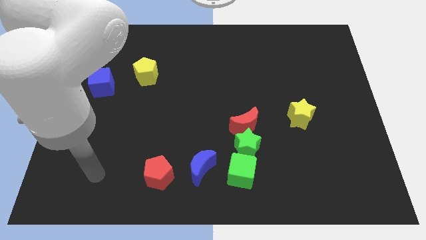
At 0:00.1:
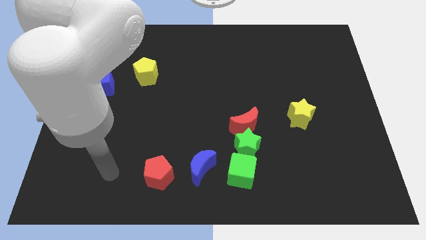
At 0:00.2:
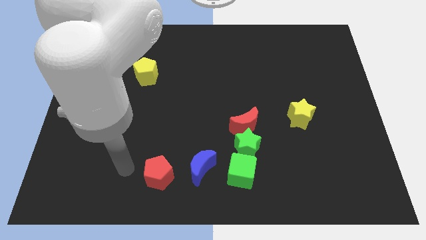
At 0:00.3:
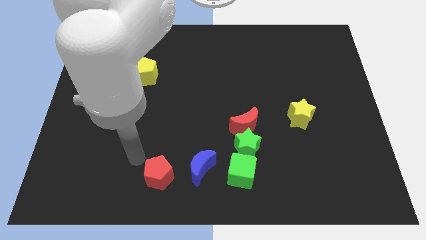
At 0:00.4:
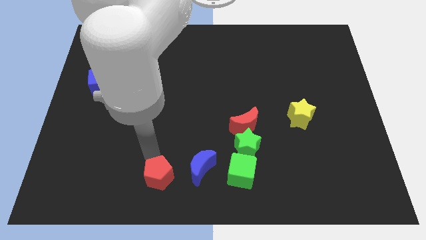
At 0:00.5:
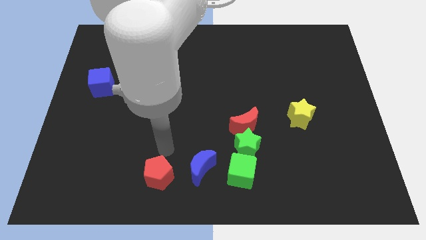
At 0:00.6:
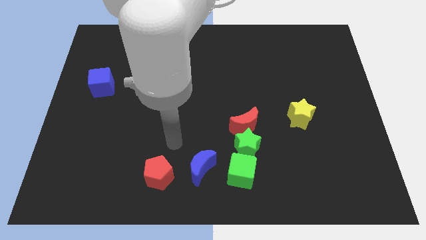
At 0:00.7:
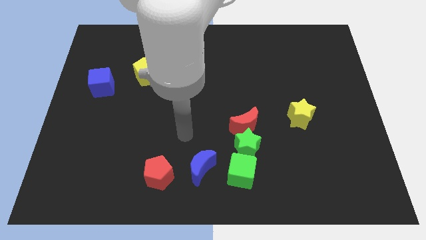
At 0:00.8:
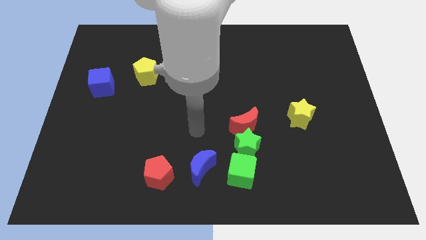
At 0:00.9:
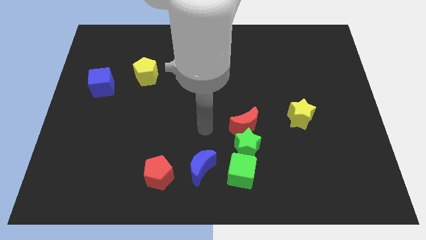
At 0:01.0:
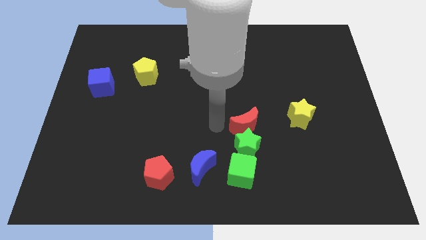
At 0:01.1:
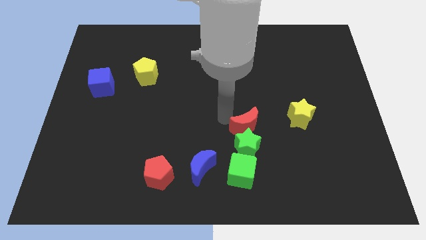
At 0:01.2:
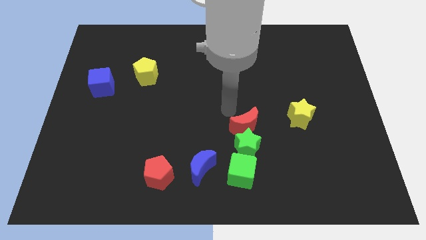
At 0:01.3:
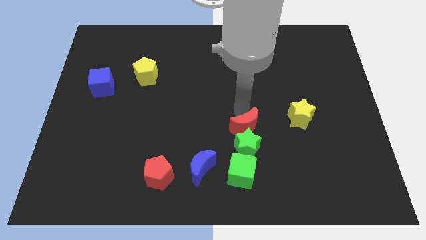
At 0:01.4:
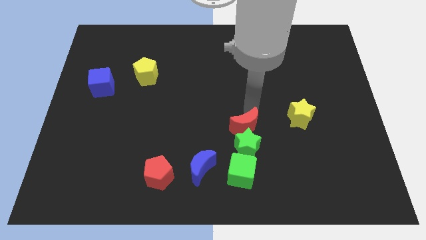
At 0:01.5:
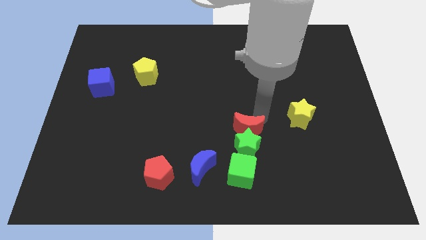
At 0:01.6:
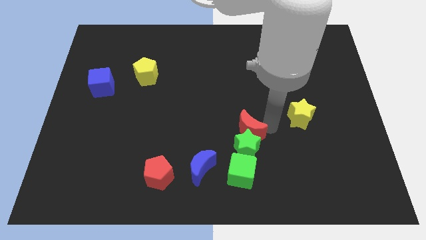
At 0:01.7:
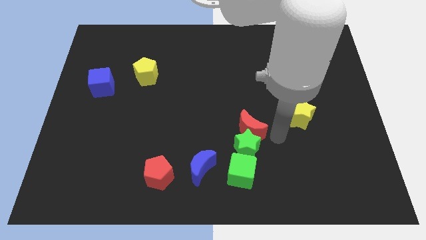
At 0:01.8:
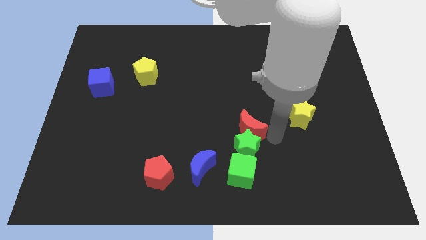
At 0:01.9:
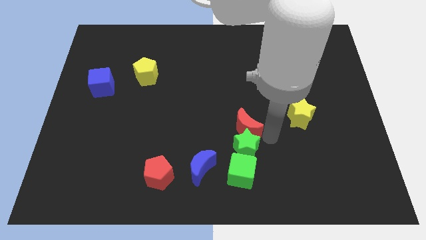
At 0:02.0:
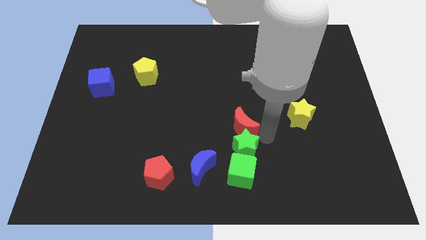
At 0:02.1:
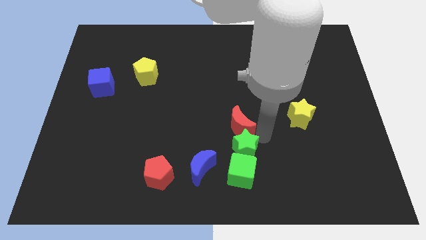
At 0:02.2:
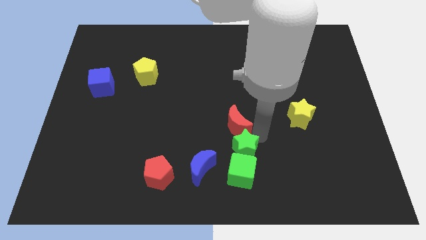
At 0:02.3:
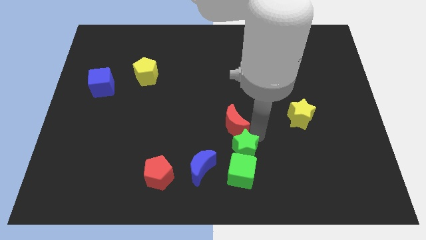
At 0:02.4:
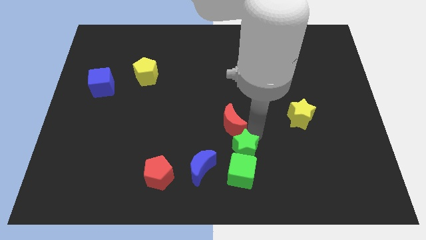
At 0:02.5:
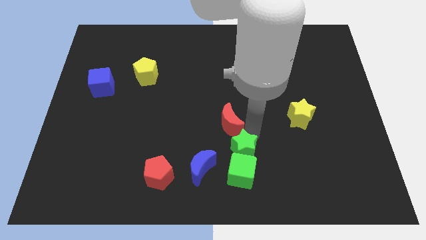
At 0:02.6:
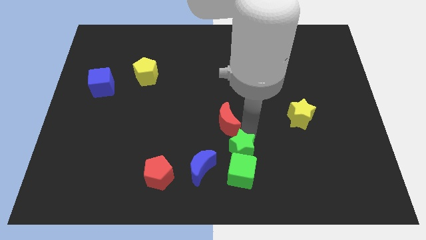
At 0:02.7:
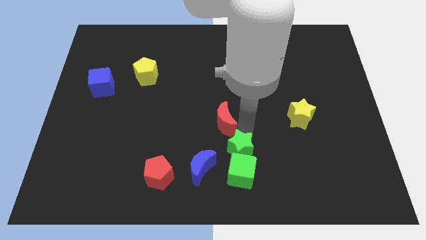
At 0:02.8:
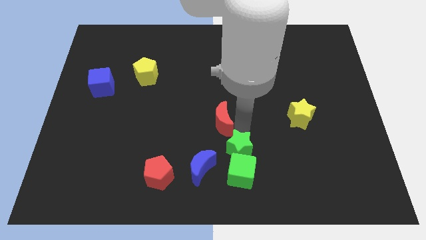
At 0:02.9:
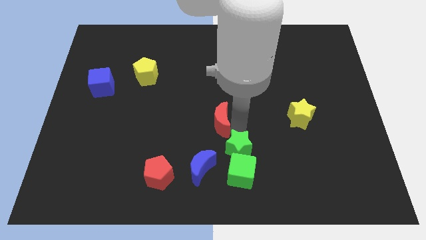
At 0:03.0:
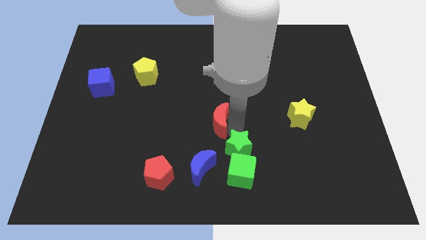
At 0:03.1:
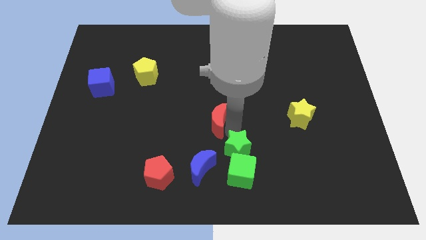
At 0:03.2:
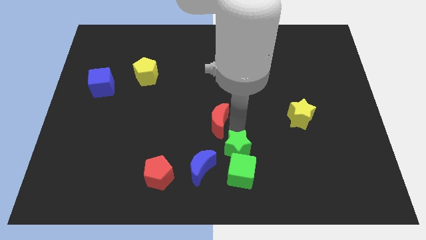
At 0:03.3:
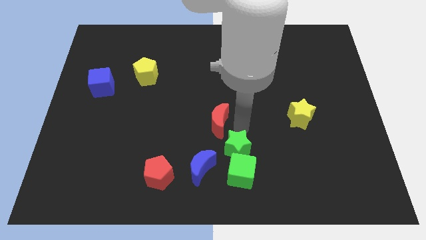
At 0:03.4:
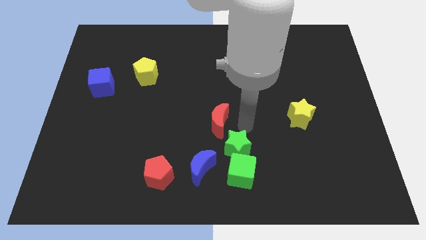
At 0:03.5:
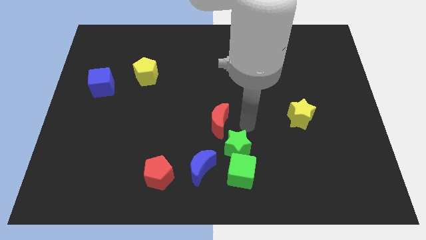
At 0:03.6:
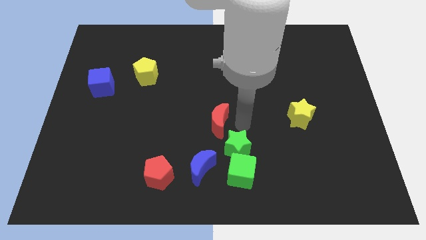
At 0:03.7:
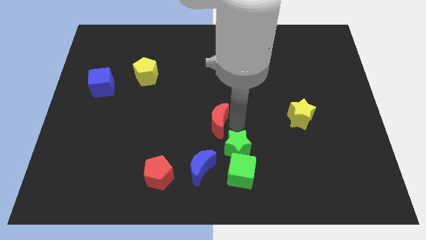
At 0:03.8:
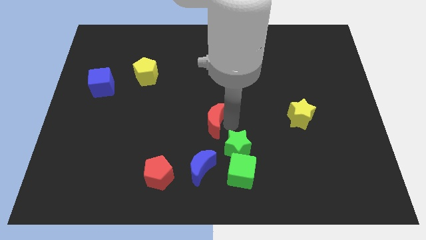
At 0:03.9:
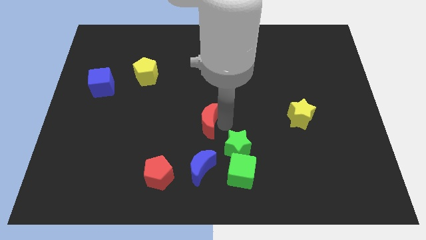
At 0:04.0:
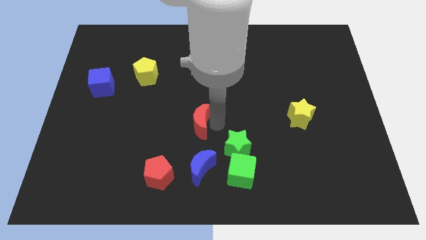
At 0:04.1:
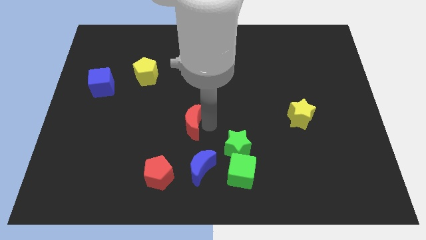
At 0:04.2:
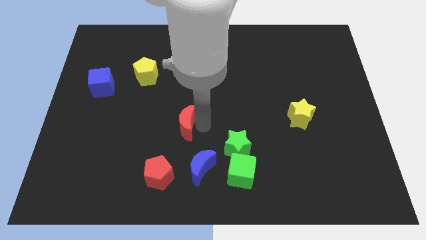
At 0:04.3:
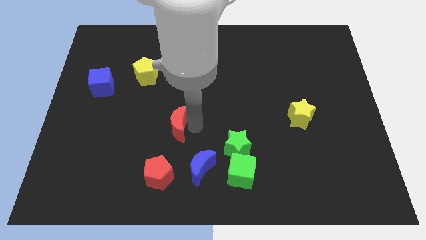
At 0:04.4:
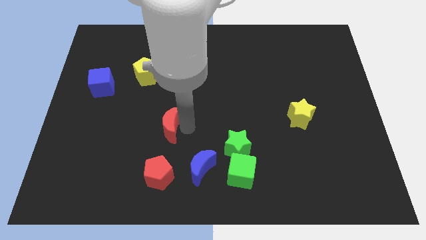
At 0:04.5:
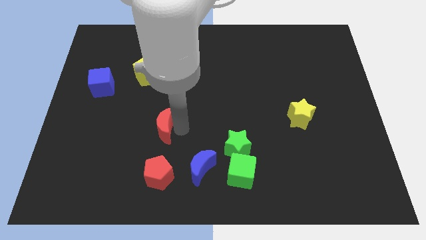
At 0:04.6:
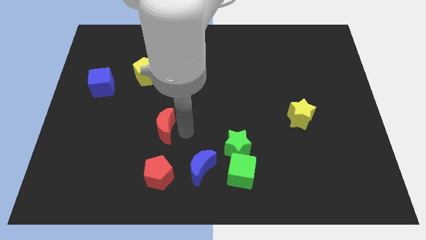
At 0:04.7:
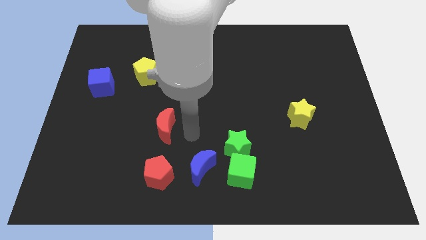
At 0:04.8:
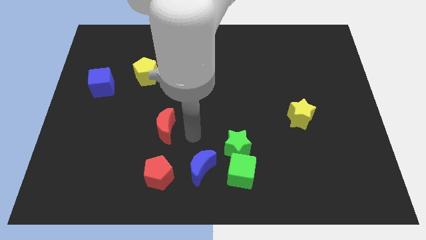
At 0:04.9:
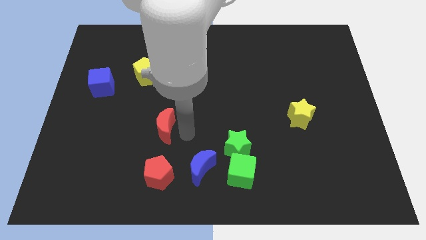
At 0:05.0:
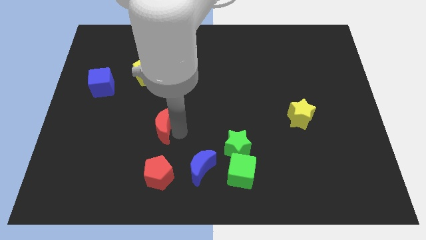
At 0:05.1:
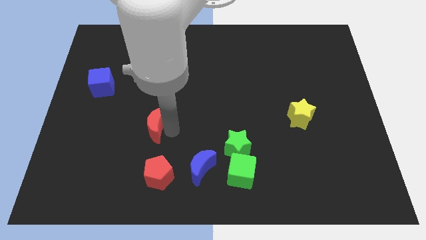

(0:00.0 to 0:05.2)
move the red moon left

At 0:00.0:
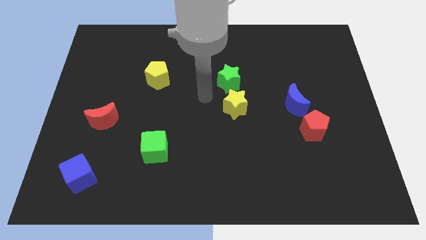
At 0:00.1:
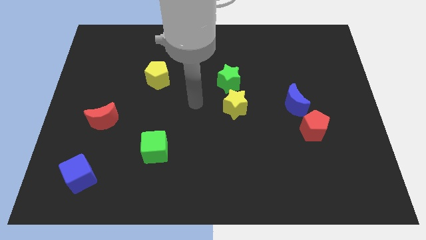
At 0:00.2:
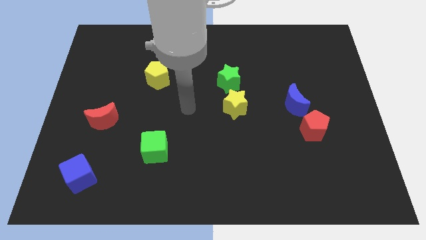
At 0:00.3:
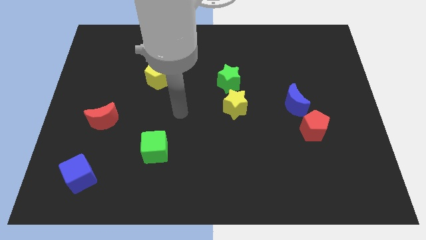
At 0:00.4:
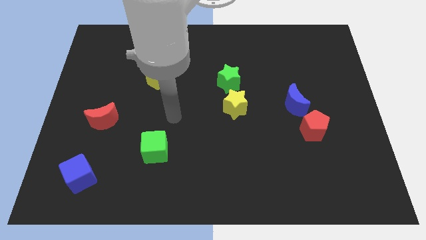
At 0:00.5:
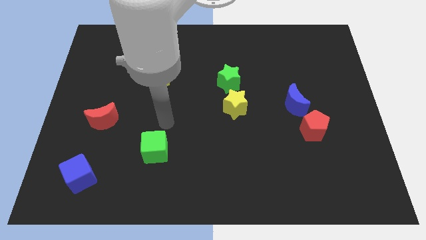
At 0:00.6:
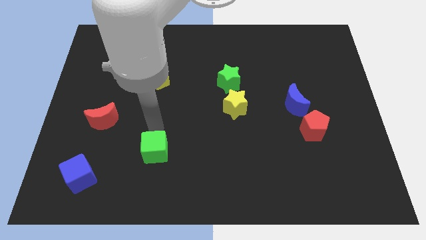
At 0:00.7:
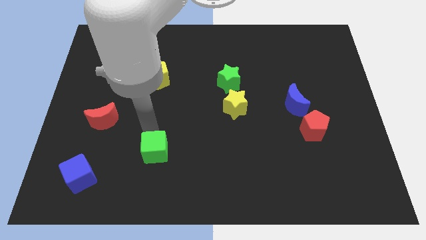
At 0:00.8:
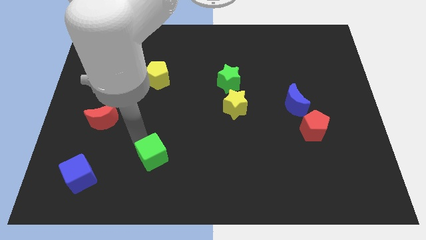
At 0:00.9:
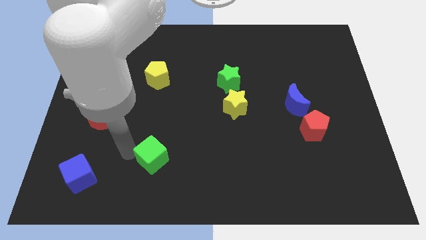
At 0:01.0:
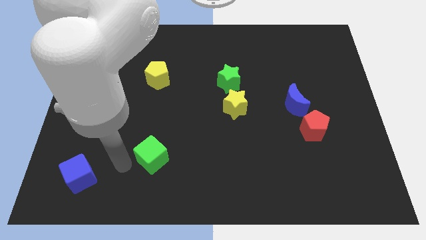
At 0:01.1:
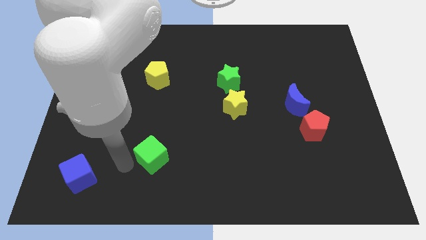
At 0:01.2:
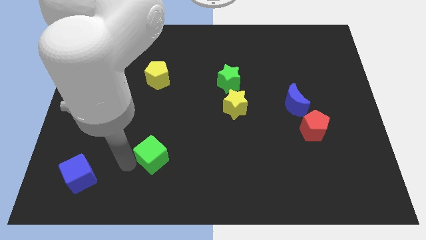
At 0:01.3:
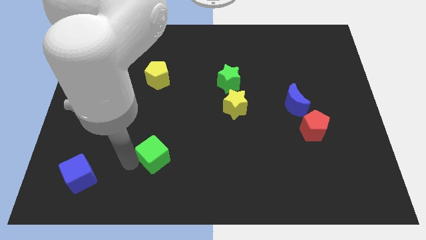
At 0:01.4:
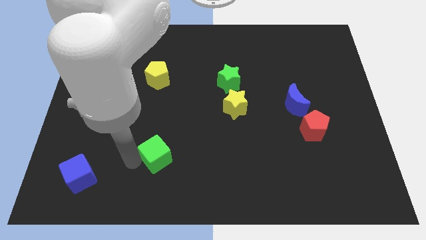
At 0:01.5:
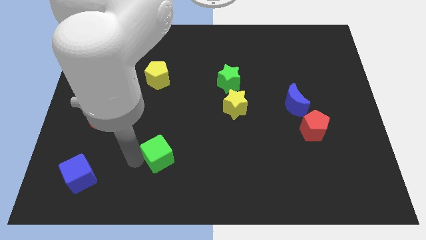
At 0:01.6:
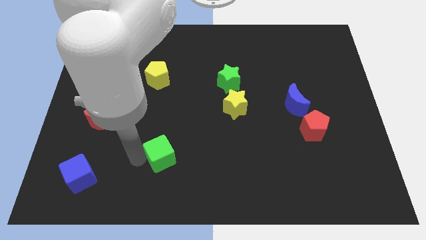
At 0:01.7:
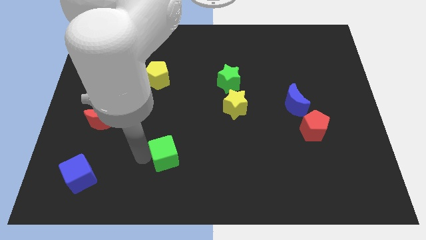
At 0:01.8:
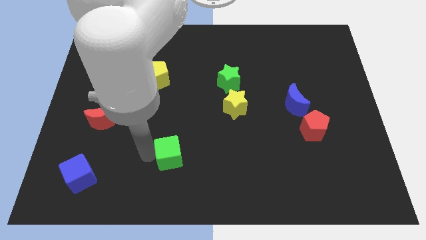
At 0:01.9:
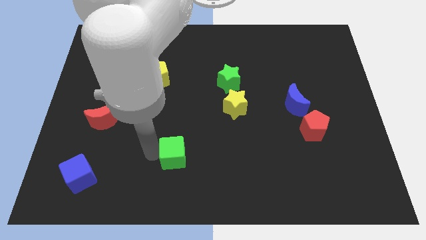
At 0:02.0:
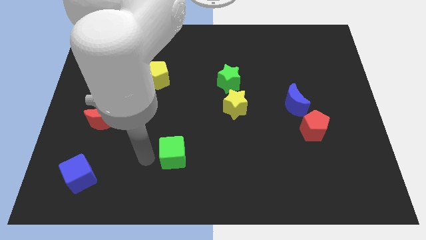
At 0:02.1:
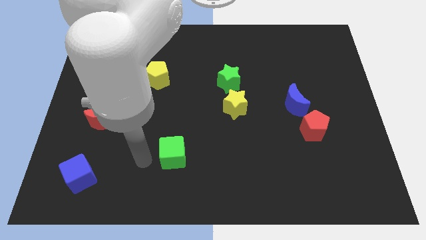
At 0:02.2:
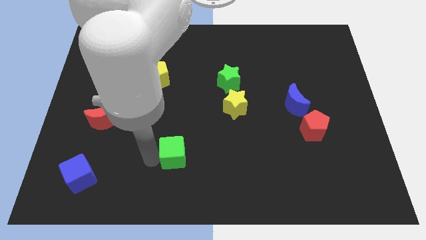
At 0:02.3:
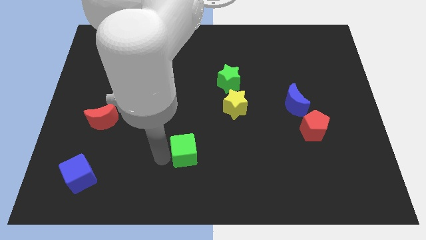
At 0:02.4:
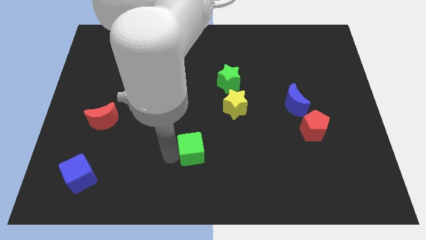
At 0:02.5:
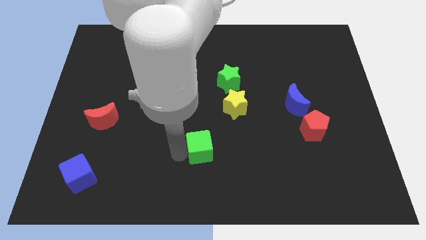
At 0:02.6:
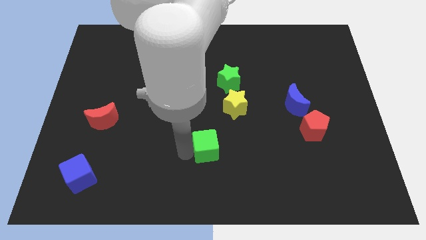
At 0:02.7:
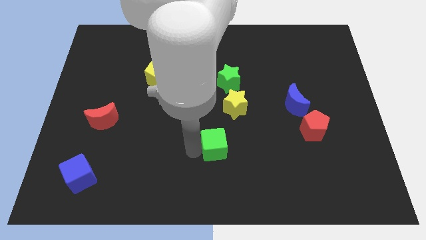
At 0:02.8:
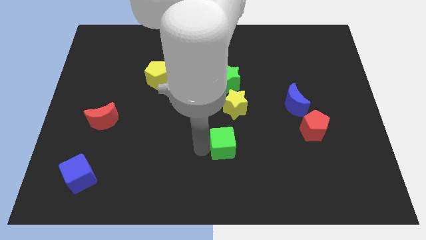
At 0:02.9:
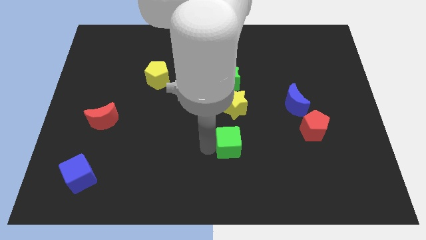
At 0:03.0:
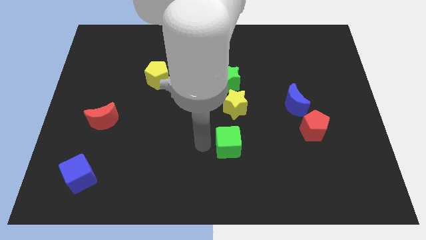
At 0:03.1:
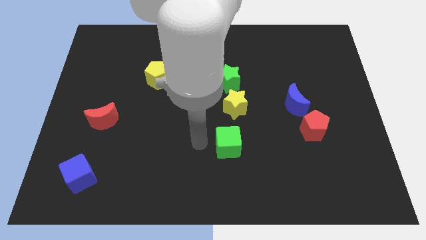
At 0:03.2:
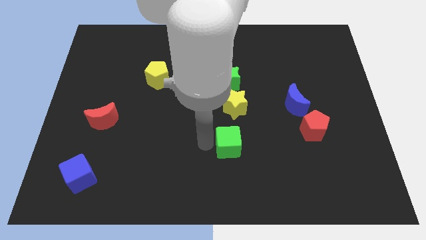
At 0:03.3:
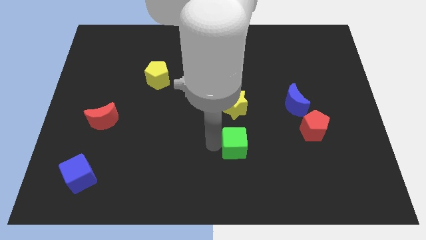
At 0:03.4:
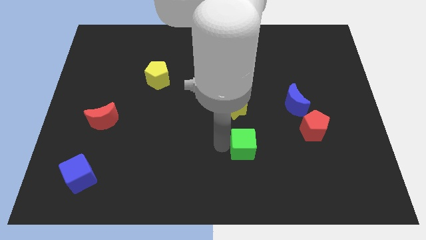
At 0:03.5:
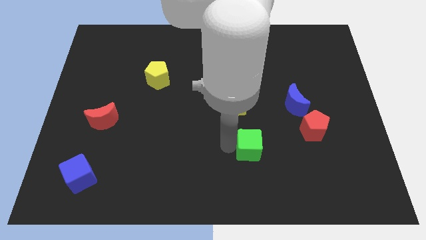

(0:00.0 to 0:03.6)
slide the green cube right
